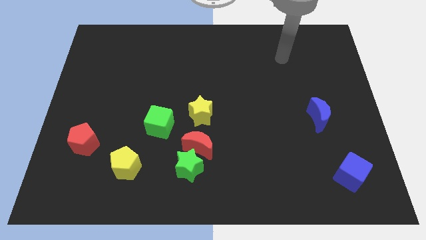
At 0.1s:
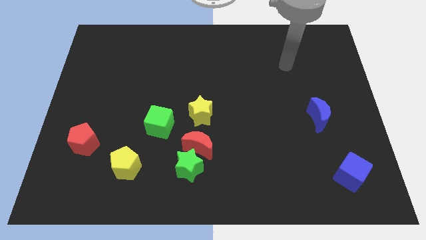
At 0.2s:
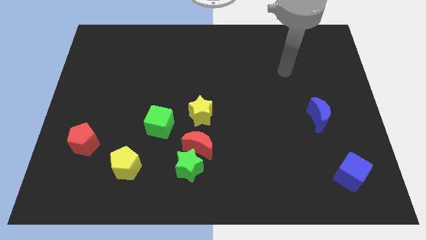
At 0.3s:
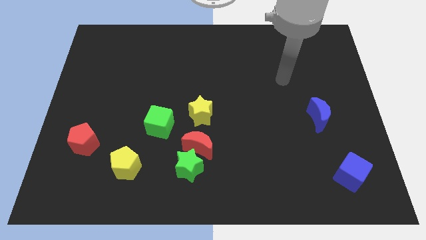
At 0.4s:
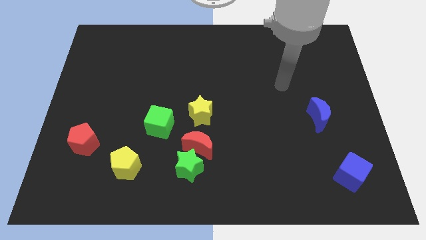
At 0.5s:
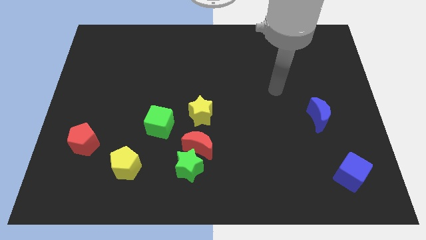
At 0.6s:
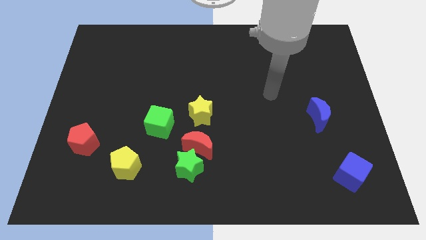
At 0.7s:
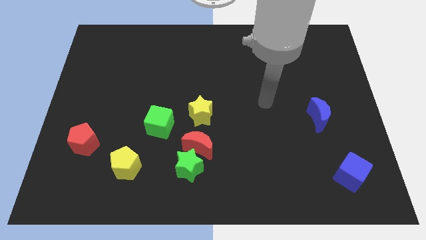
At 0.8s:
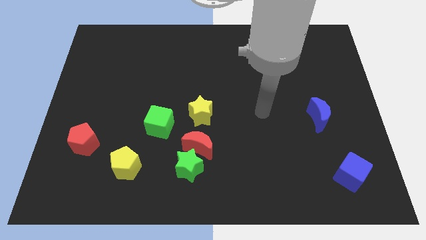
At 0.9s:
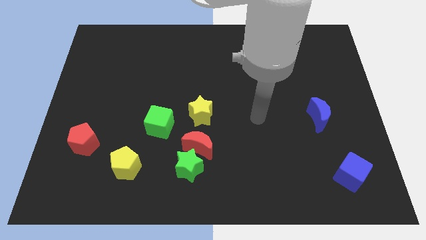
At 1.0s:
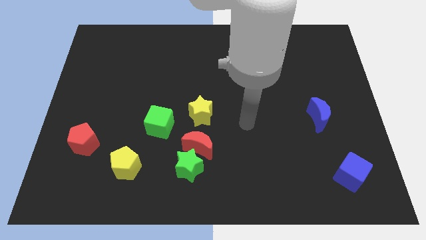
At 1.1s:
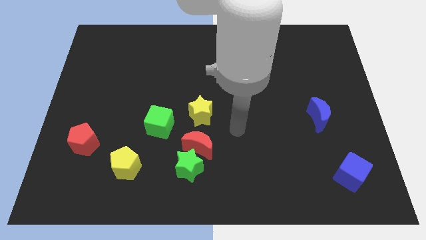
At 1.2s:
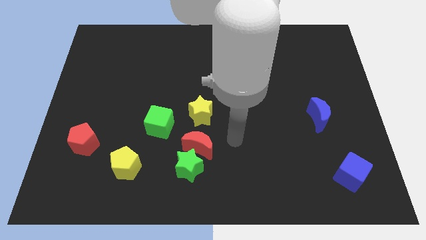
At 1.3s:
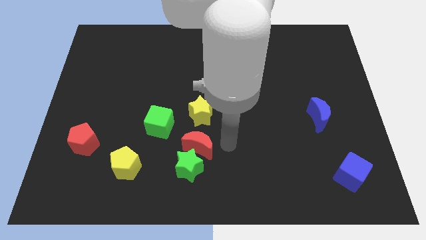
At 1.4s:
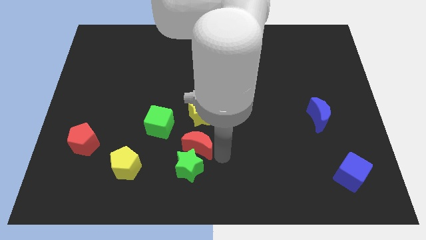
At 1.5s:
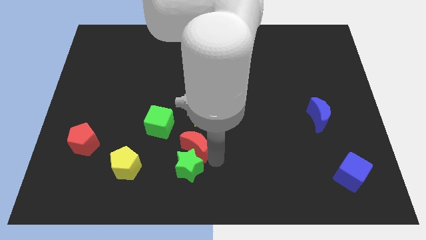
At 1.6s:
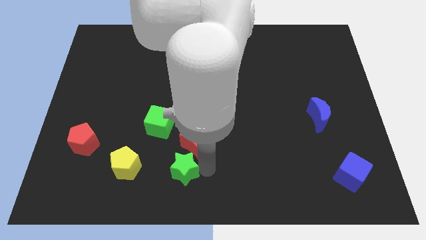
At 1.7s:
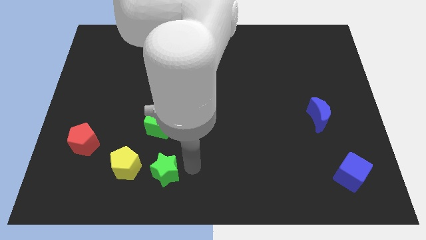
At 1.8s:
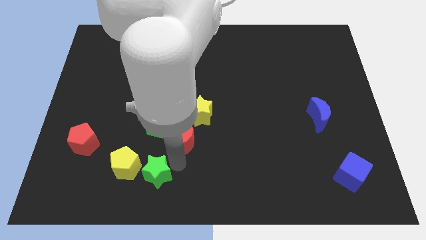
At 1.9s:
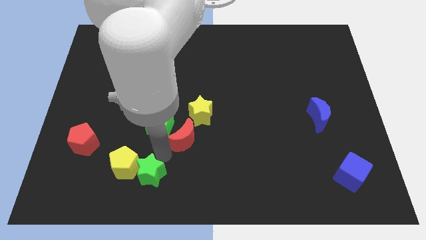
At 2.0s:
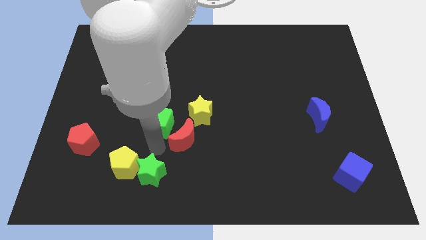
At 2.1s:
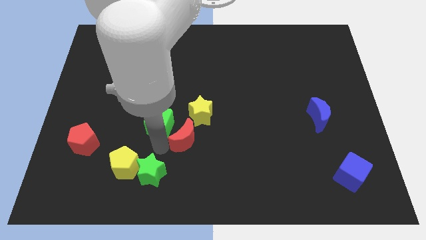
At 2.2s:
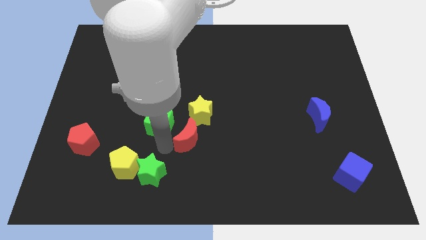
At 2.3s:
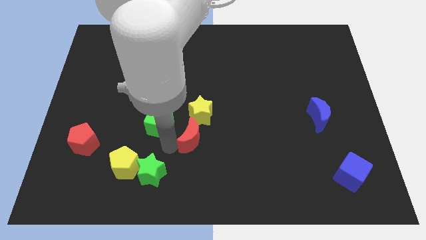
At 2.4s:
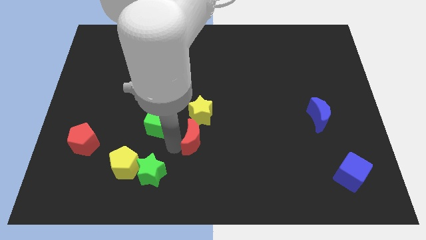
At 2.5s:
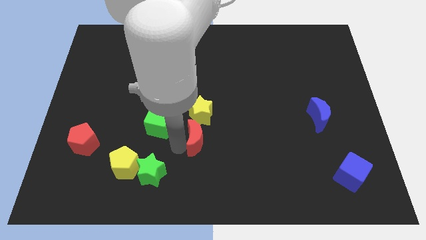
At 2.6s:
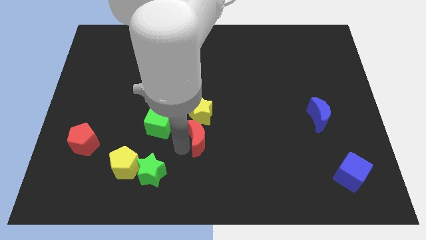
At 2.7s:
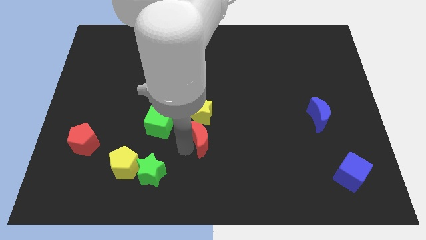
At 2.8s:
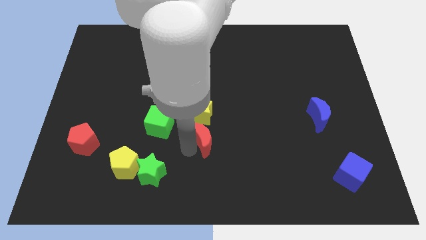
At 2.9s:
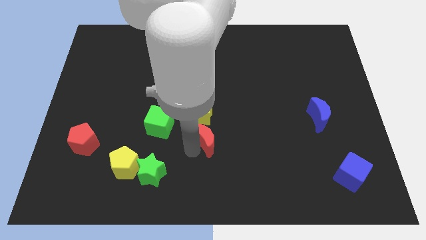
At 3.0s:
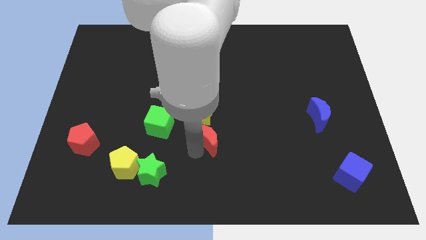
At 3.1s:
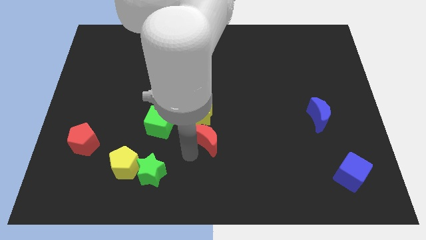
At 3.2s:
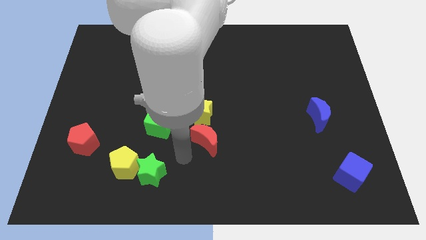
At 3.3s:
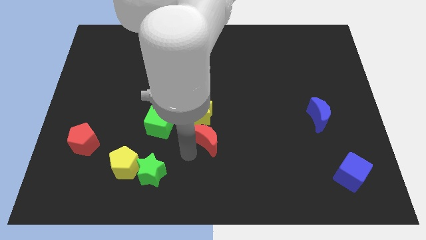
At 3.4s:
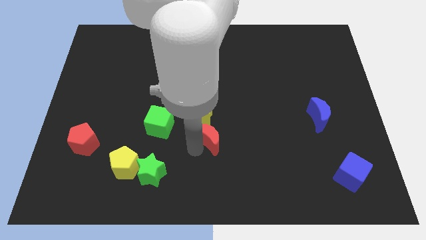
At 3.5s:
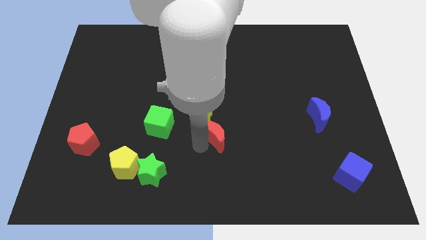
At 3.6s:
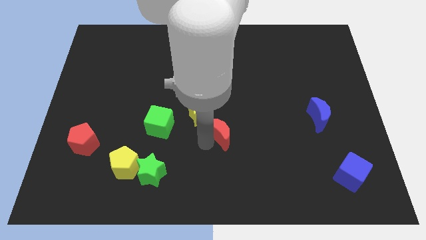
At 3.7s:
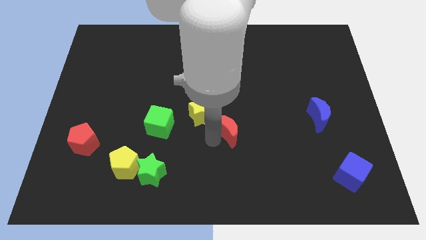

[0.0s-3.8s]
slide the red moon slightly upwards and right diagonally

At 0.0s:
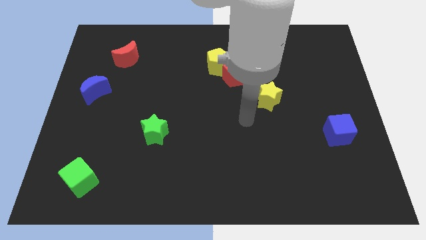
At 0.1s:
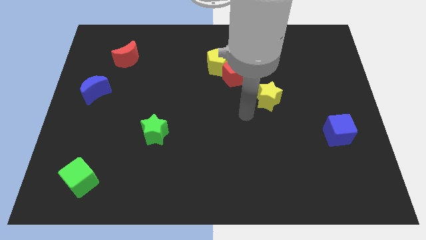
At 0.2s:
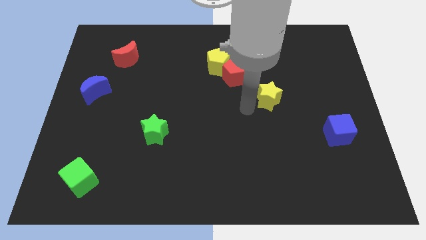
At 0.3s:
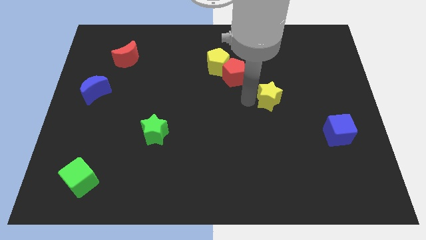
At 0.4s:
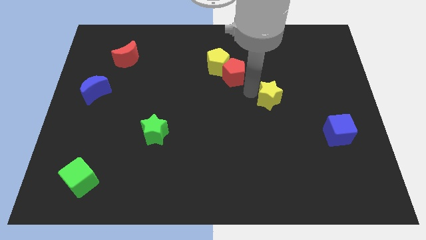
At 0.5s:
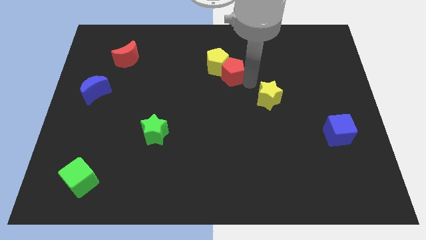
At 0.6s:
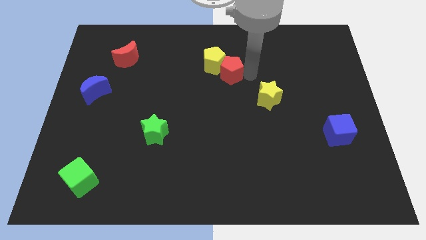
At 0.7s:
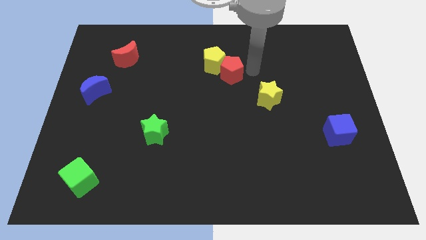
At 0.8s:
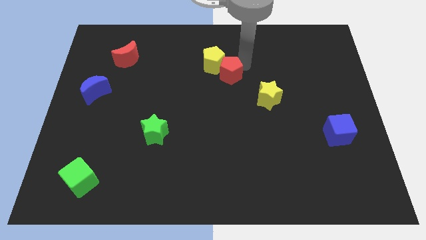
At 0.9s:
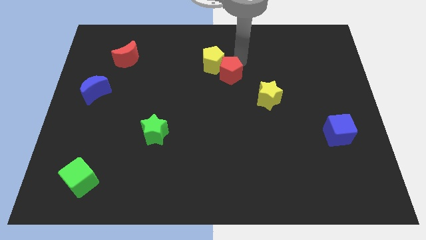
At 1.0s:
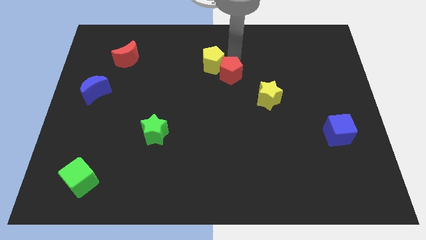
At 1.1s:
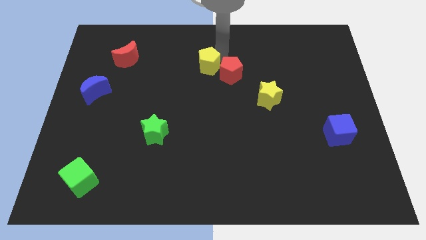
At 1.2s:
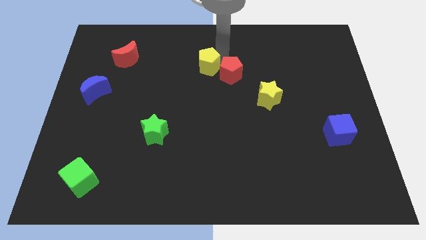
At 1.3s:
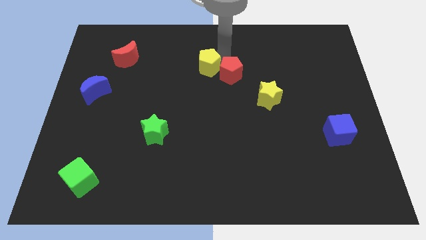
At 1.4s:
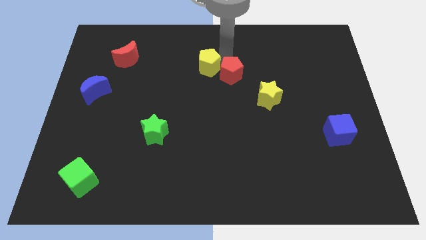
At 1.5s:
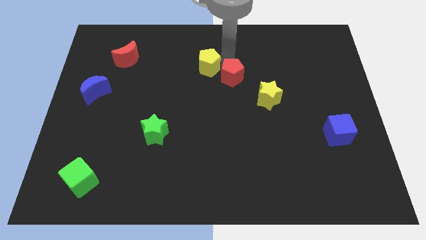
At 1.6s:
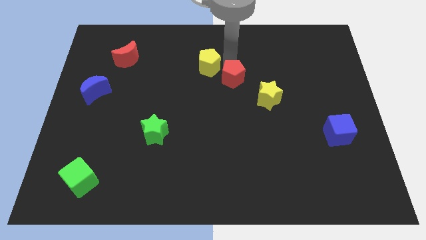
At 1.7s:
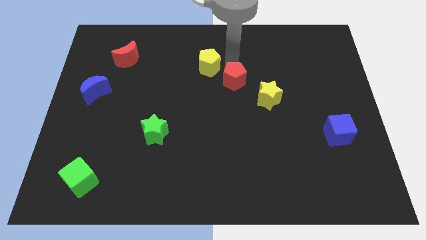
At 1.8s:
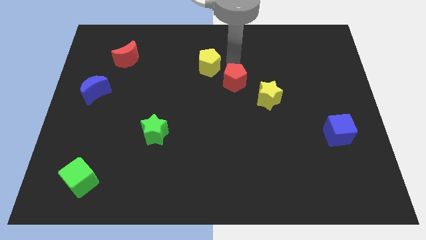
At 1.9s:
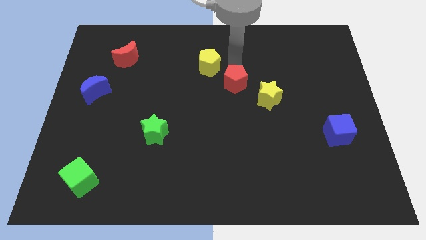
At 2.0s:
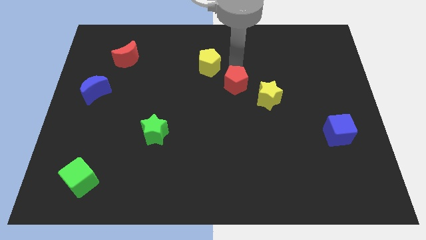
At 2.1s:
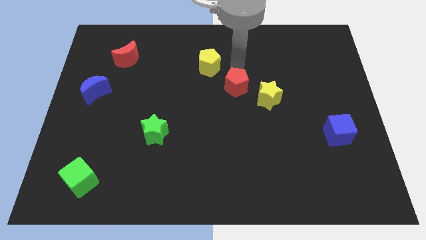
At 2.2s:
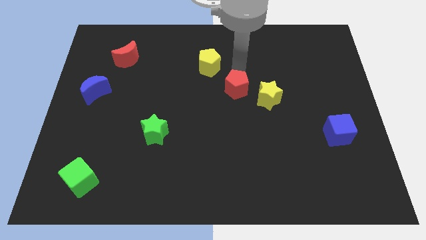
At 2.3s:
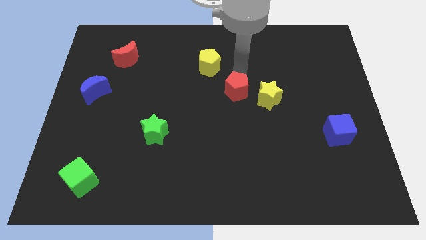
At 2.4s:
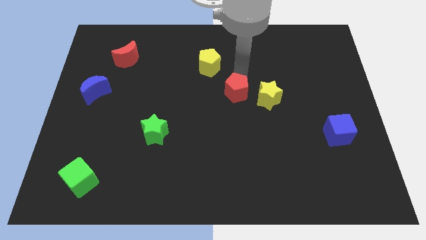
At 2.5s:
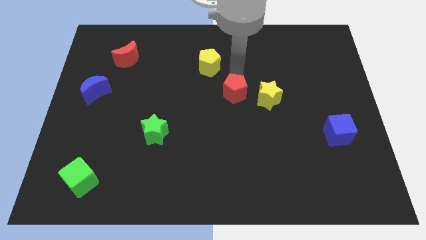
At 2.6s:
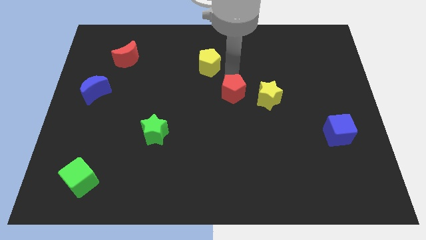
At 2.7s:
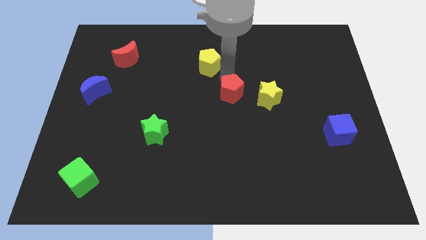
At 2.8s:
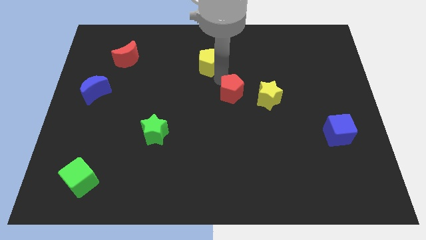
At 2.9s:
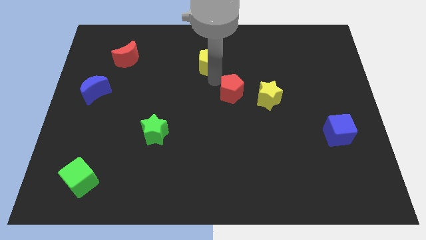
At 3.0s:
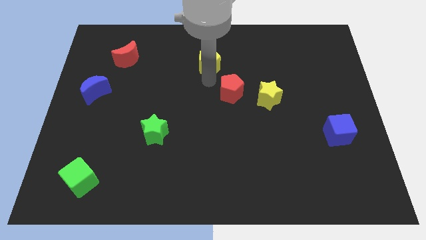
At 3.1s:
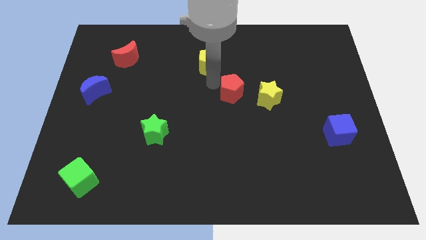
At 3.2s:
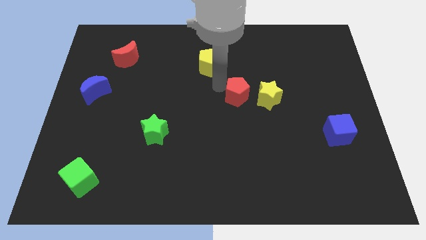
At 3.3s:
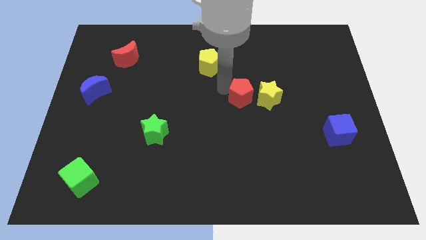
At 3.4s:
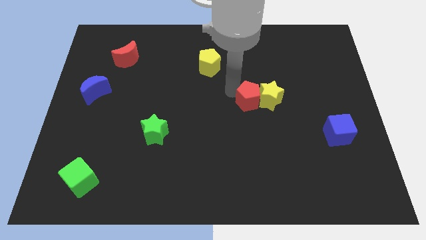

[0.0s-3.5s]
slide the red pentagon down and right diagonally a little

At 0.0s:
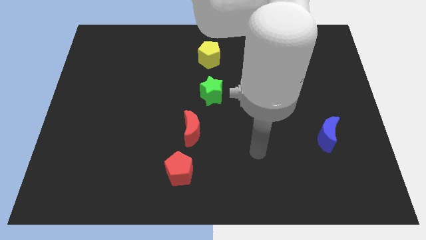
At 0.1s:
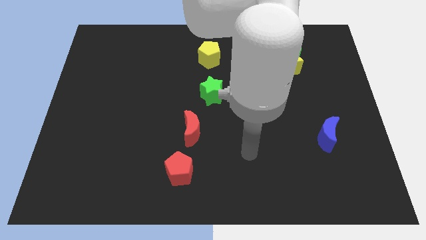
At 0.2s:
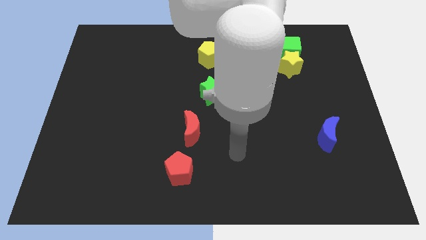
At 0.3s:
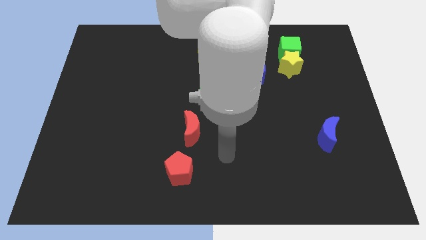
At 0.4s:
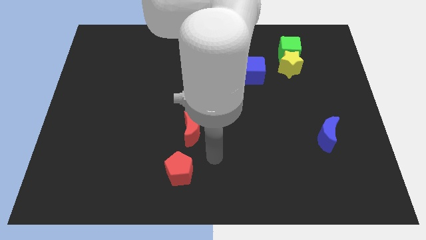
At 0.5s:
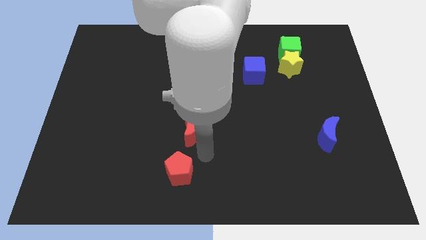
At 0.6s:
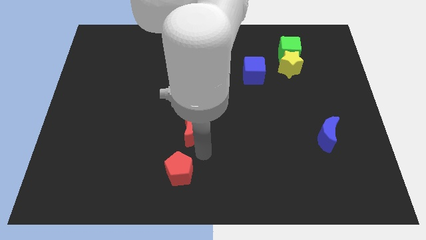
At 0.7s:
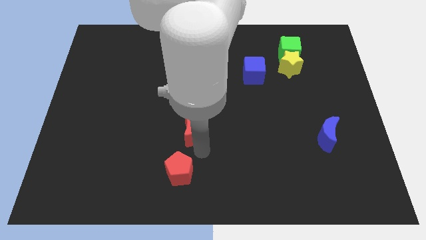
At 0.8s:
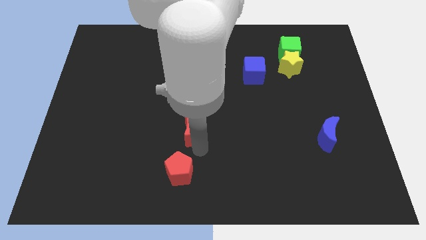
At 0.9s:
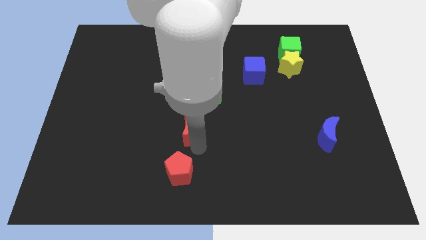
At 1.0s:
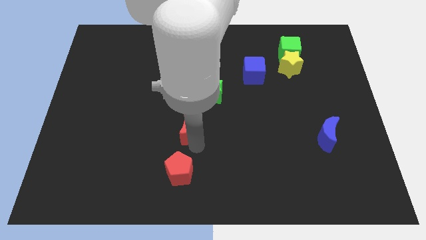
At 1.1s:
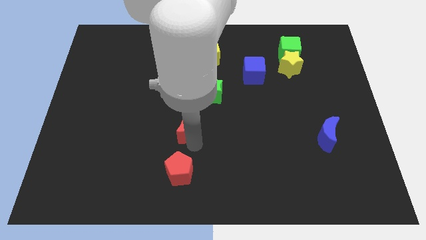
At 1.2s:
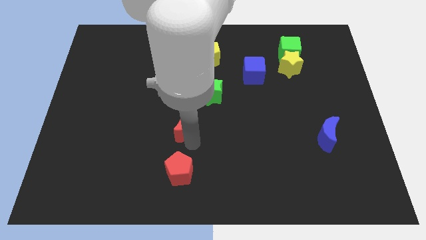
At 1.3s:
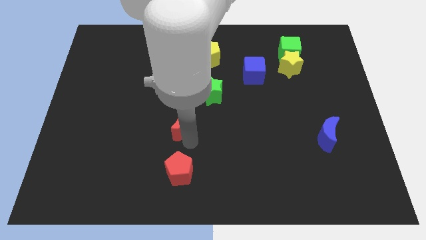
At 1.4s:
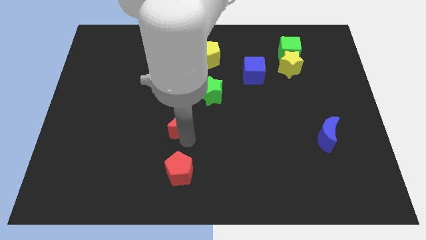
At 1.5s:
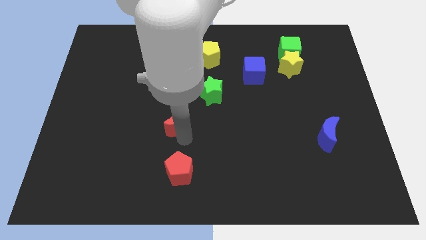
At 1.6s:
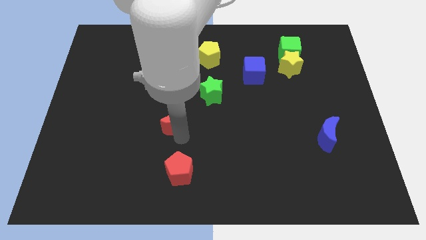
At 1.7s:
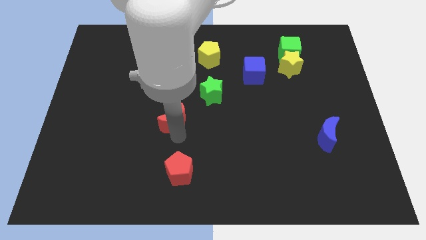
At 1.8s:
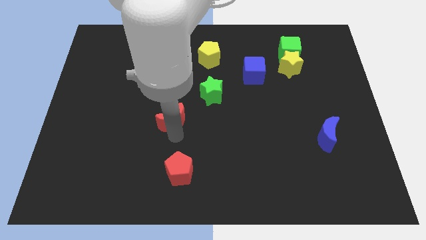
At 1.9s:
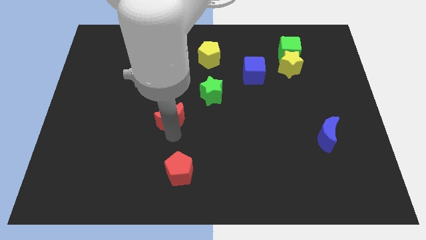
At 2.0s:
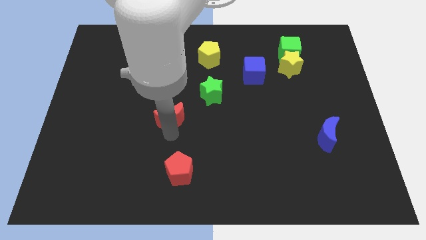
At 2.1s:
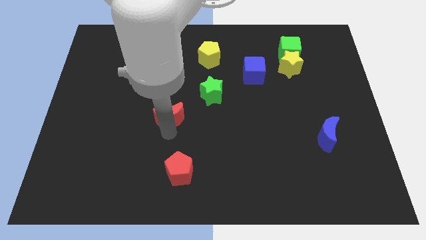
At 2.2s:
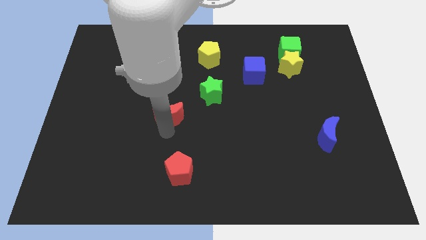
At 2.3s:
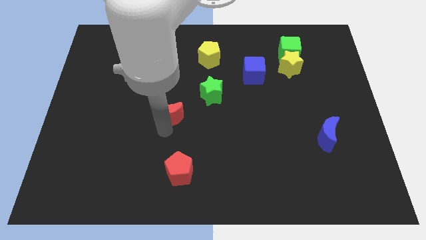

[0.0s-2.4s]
slide the red moon a little up and left
